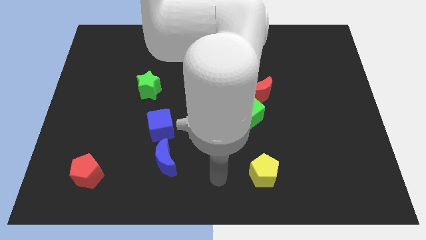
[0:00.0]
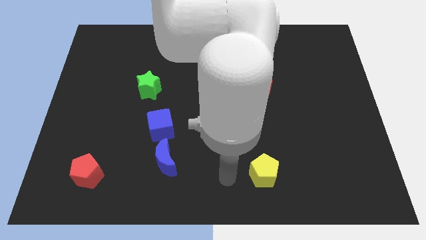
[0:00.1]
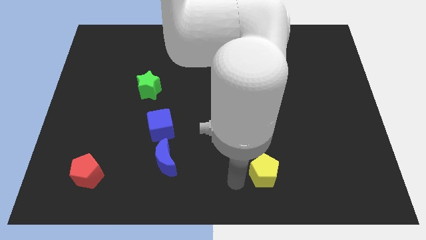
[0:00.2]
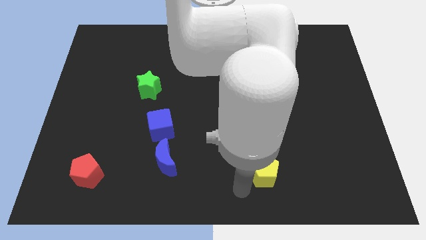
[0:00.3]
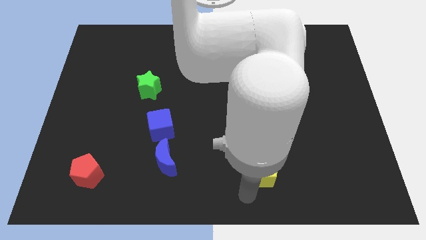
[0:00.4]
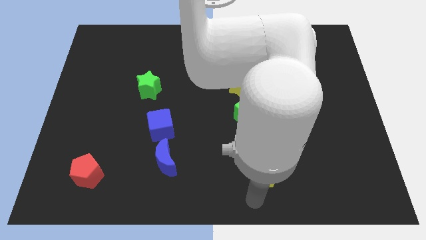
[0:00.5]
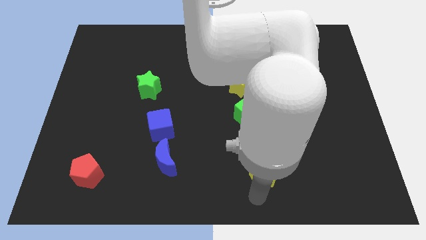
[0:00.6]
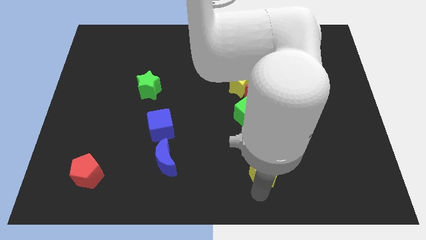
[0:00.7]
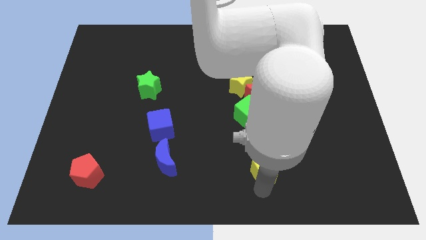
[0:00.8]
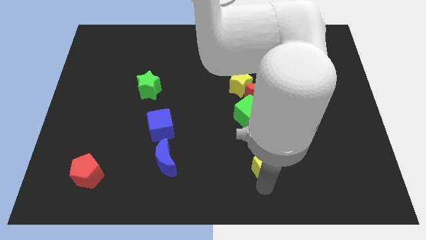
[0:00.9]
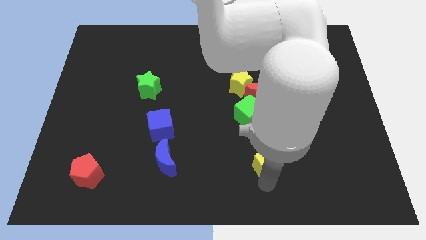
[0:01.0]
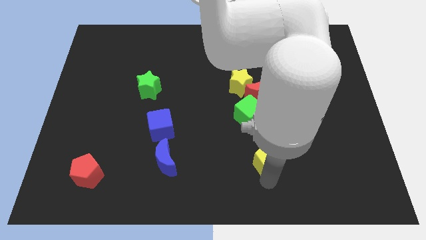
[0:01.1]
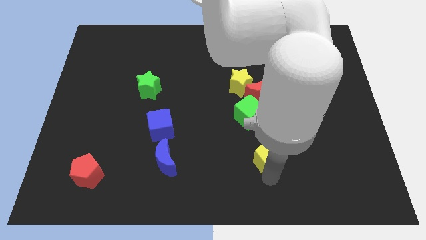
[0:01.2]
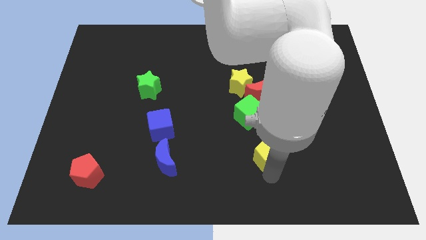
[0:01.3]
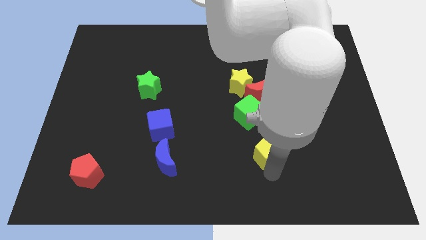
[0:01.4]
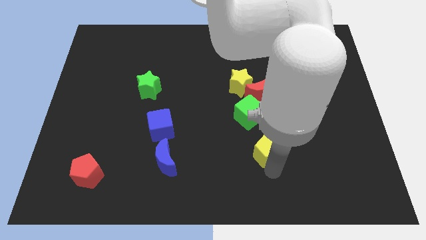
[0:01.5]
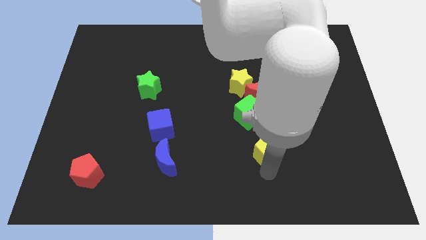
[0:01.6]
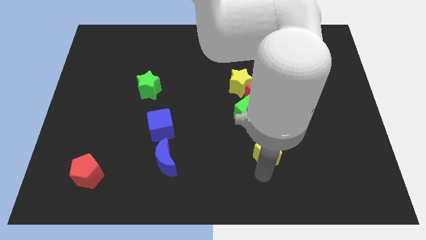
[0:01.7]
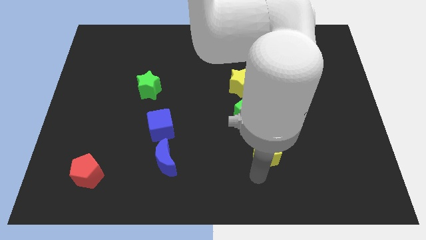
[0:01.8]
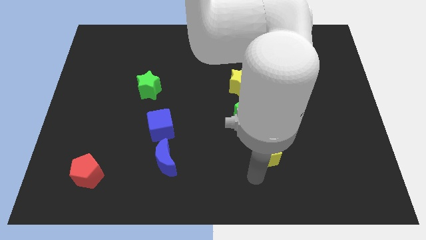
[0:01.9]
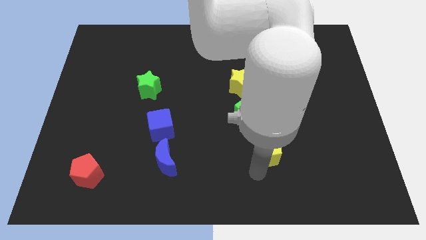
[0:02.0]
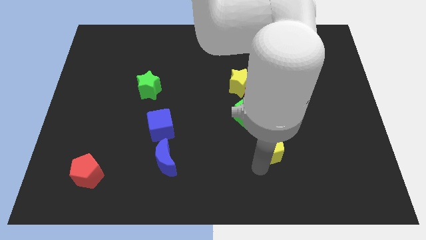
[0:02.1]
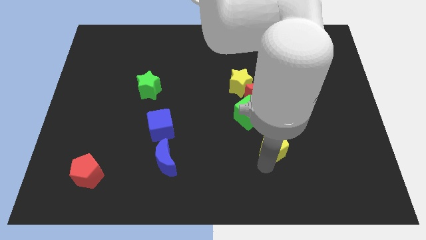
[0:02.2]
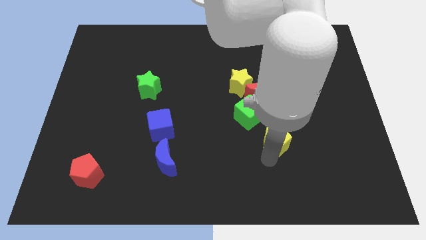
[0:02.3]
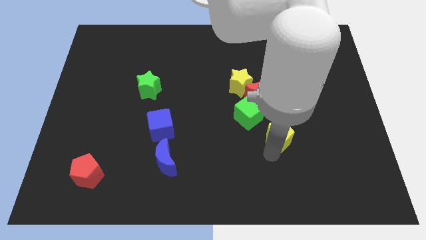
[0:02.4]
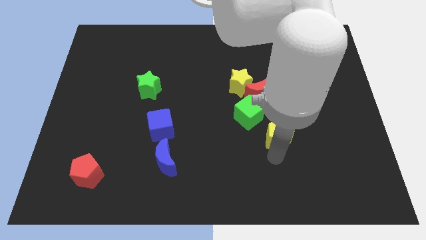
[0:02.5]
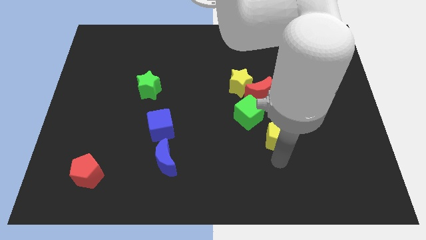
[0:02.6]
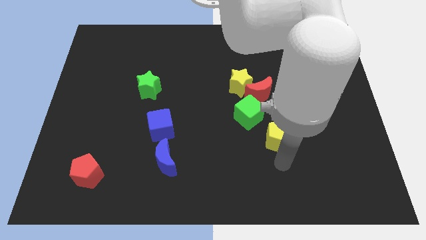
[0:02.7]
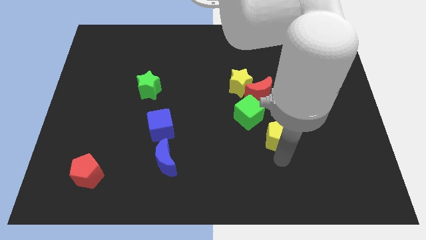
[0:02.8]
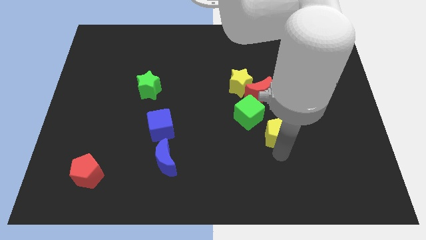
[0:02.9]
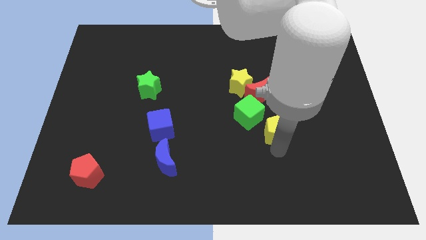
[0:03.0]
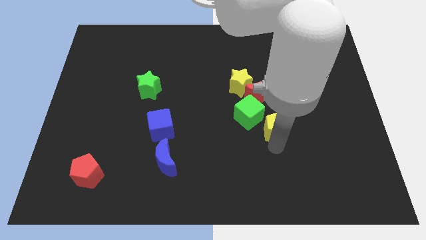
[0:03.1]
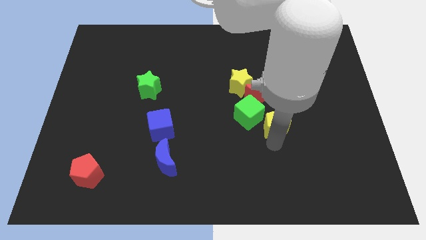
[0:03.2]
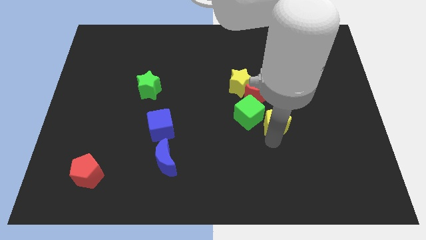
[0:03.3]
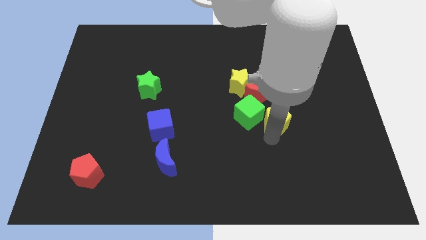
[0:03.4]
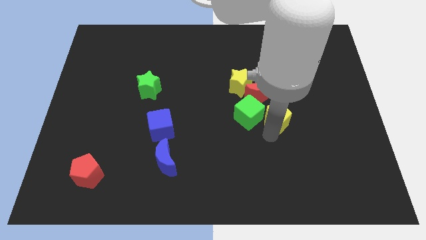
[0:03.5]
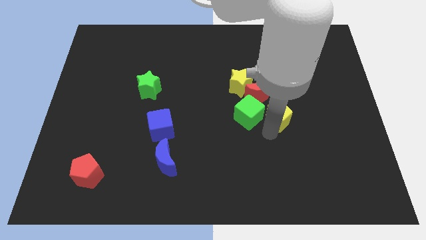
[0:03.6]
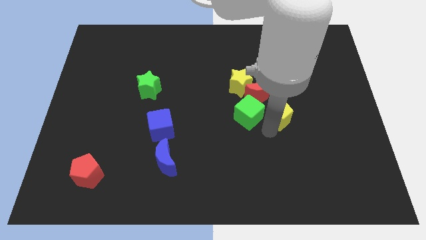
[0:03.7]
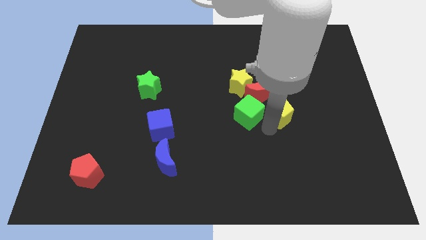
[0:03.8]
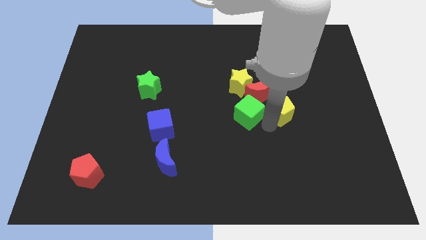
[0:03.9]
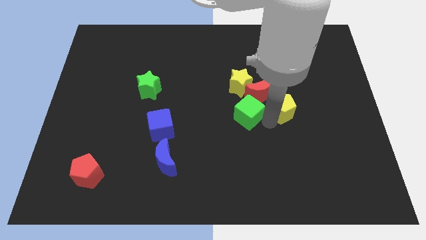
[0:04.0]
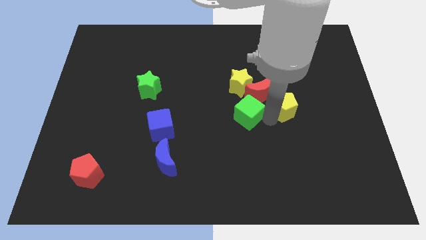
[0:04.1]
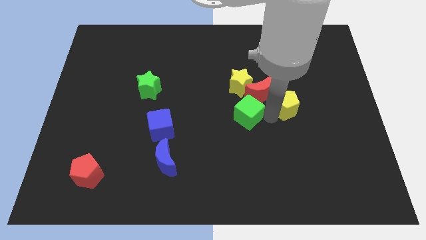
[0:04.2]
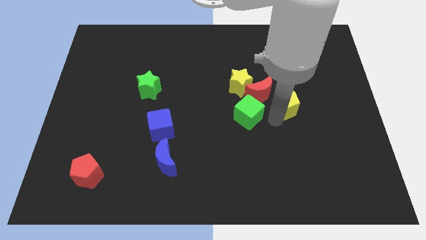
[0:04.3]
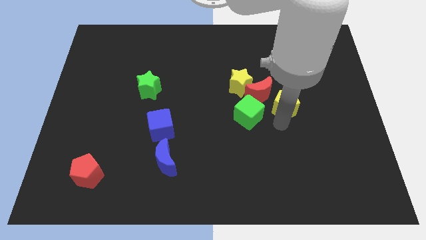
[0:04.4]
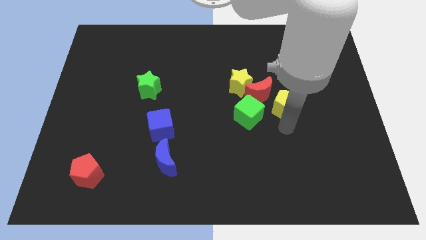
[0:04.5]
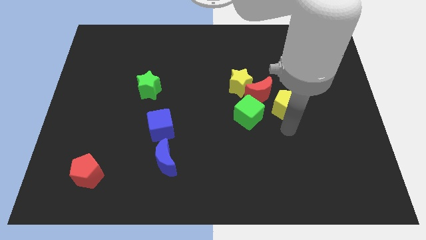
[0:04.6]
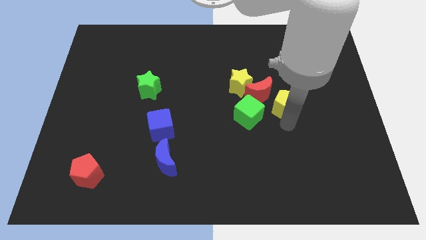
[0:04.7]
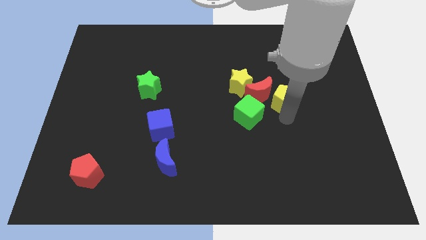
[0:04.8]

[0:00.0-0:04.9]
move the yellow pentagon to the right side of the yellow star

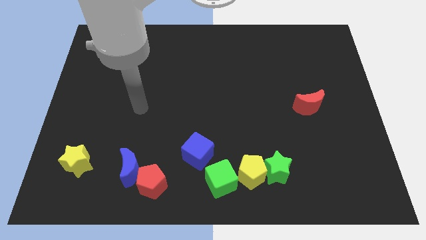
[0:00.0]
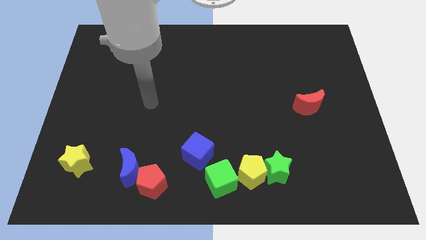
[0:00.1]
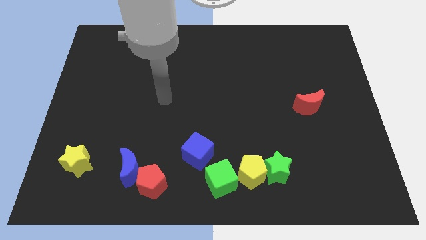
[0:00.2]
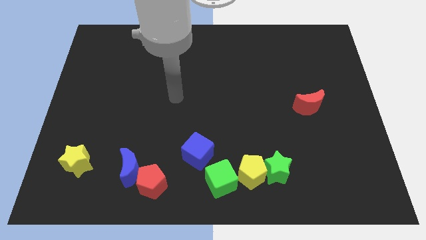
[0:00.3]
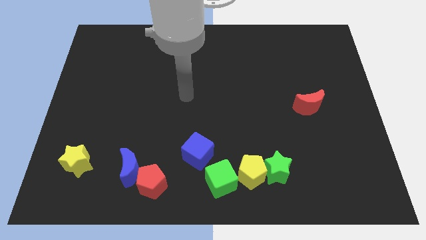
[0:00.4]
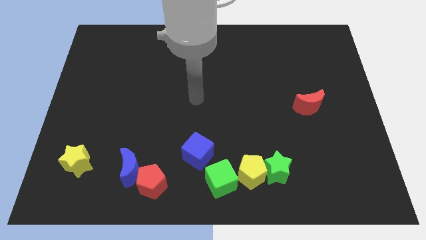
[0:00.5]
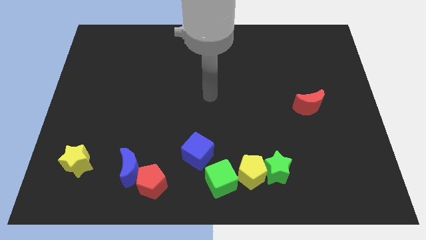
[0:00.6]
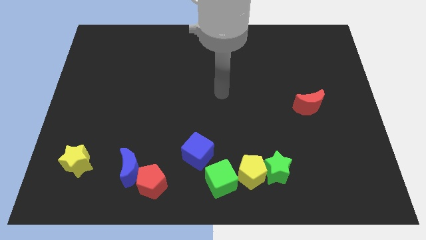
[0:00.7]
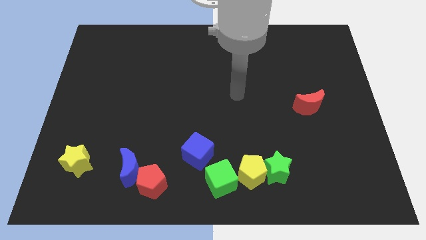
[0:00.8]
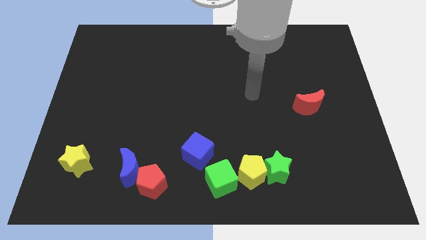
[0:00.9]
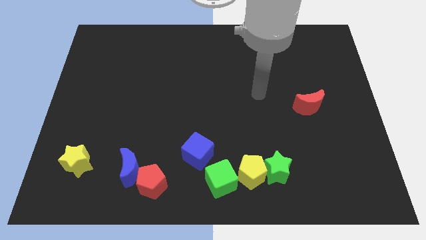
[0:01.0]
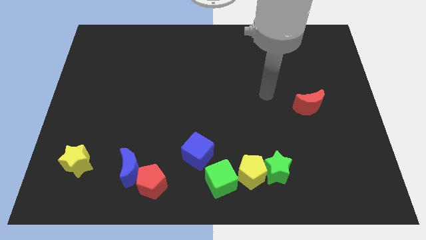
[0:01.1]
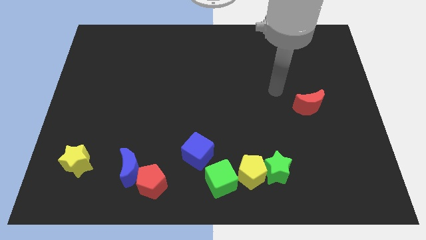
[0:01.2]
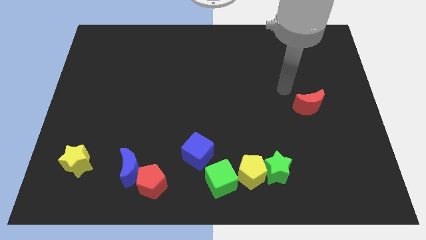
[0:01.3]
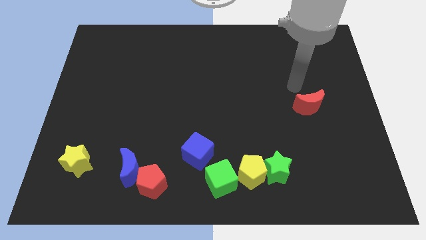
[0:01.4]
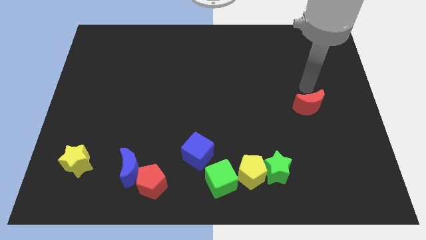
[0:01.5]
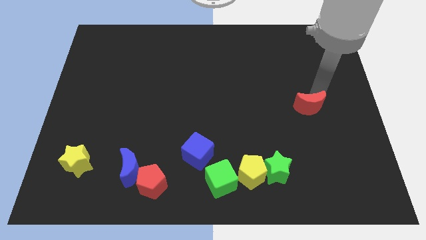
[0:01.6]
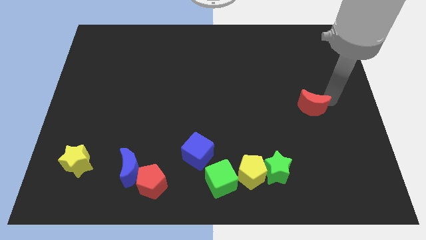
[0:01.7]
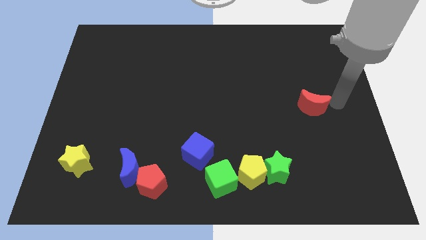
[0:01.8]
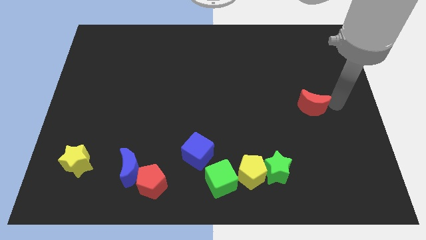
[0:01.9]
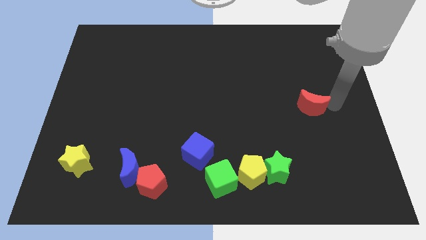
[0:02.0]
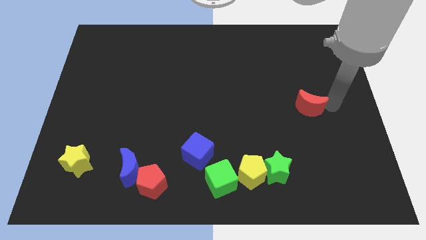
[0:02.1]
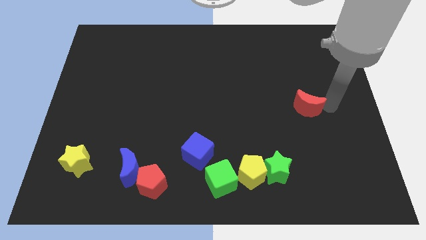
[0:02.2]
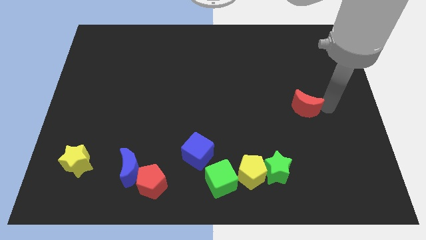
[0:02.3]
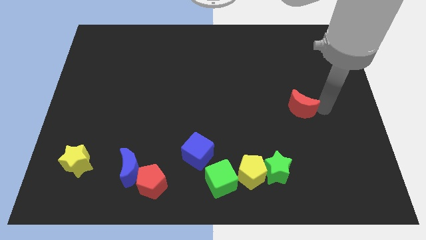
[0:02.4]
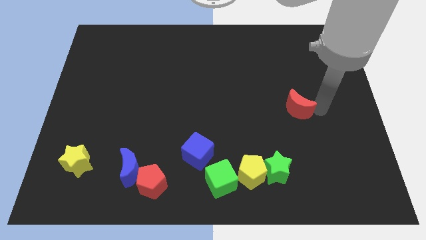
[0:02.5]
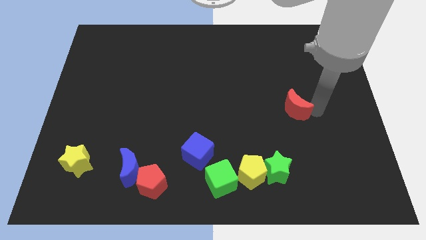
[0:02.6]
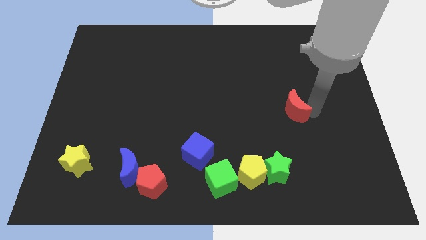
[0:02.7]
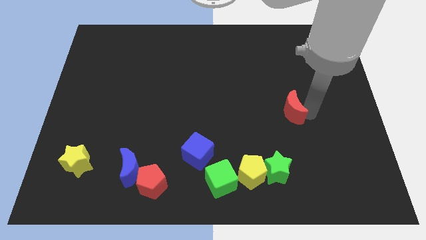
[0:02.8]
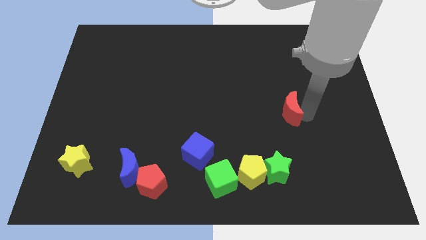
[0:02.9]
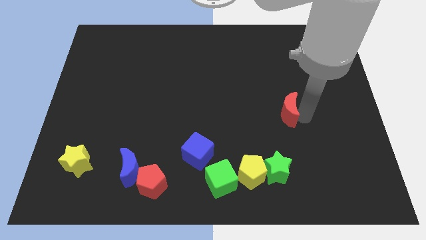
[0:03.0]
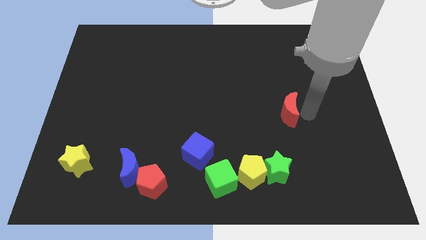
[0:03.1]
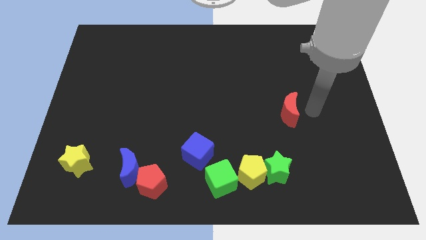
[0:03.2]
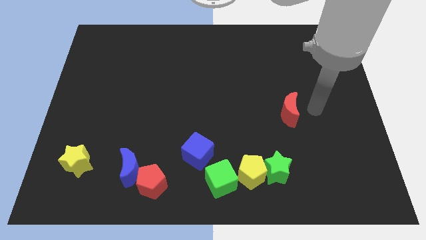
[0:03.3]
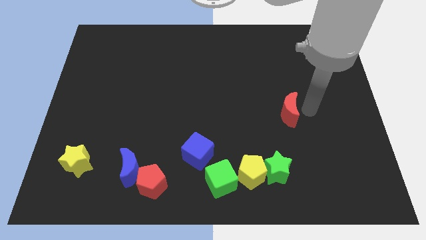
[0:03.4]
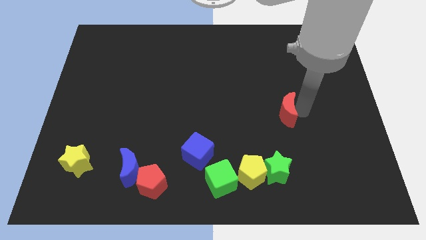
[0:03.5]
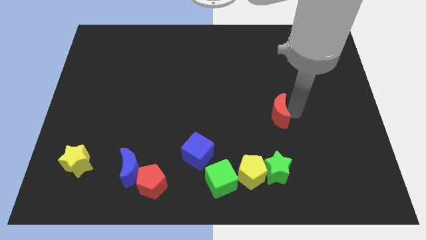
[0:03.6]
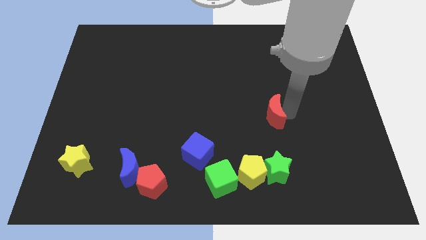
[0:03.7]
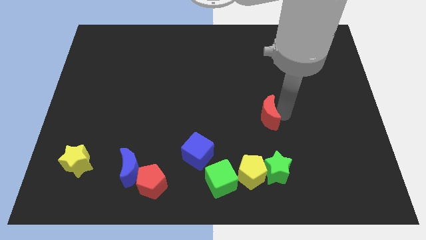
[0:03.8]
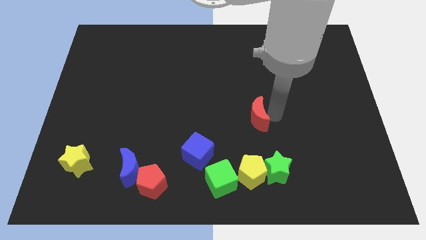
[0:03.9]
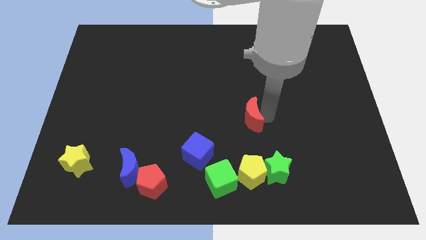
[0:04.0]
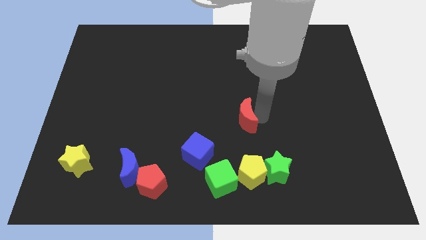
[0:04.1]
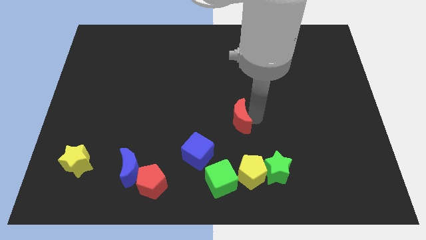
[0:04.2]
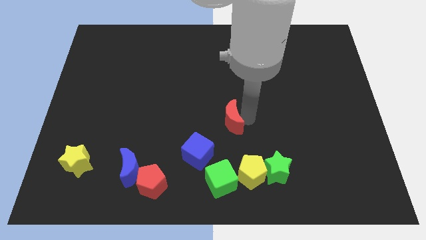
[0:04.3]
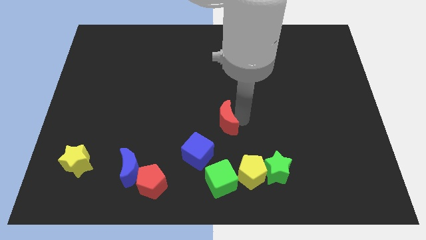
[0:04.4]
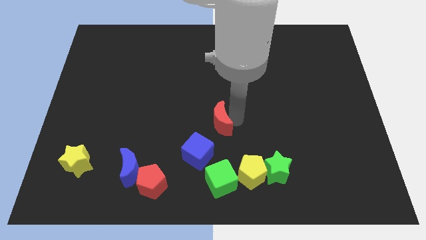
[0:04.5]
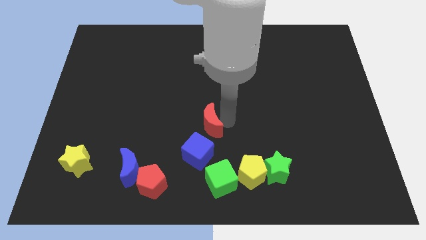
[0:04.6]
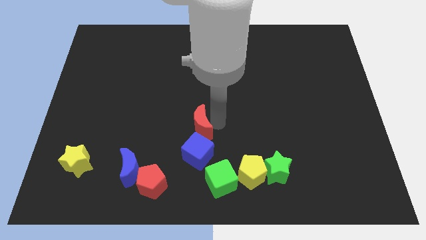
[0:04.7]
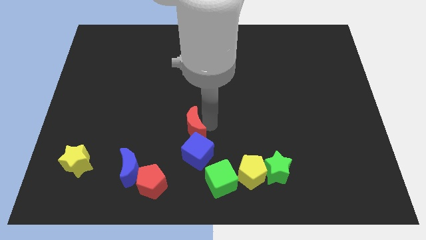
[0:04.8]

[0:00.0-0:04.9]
push the red moon diagonally up and to the left of the blue cube
